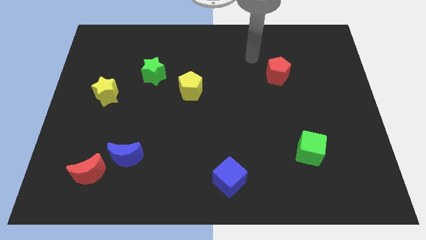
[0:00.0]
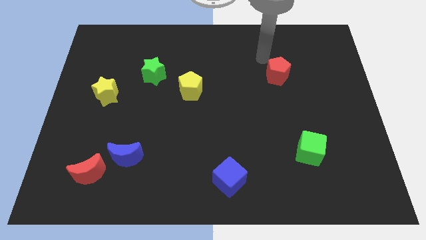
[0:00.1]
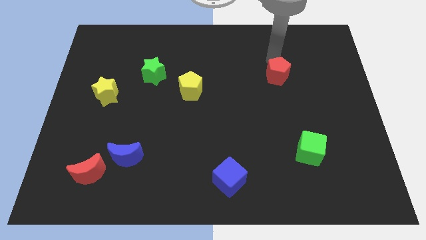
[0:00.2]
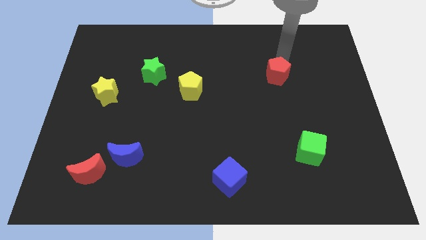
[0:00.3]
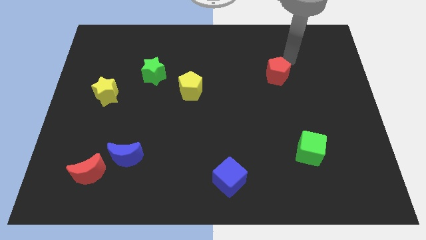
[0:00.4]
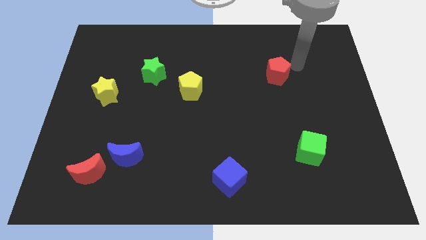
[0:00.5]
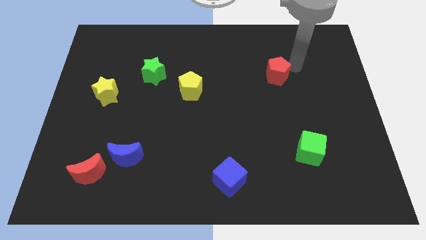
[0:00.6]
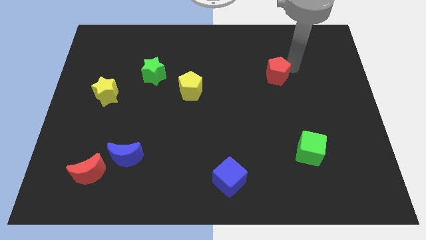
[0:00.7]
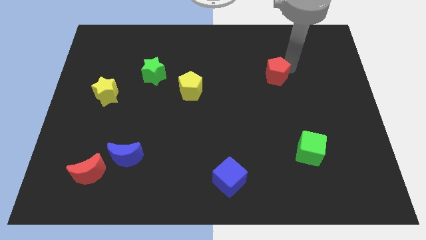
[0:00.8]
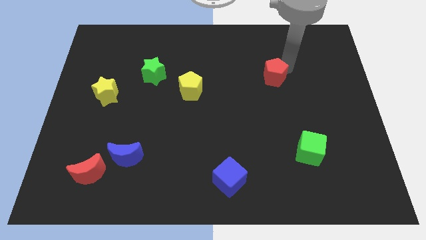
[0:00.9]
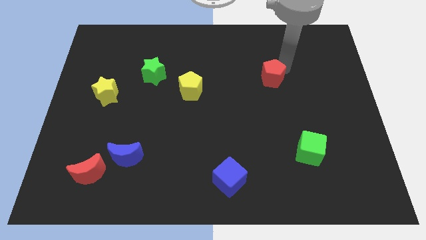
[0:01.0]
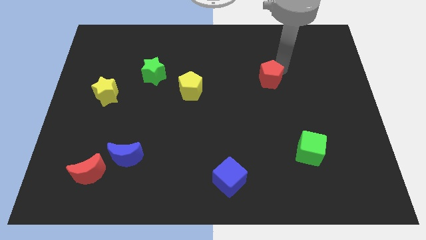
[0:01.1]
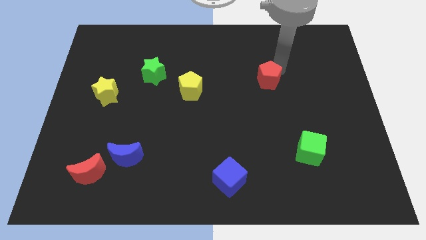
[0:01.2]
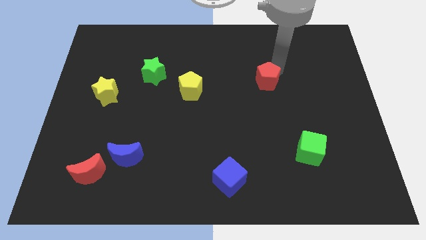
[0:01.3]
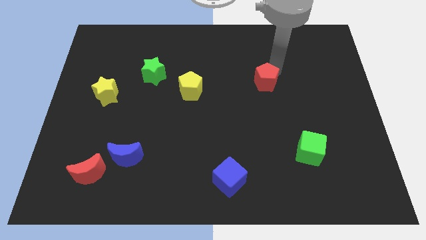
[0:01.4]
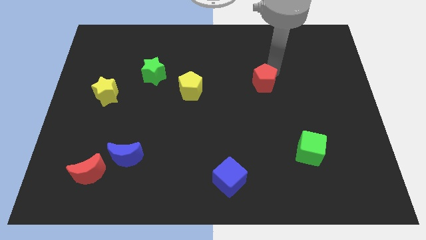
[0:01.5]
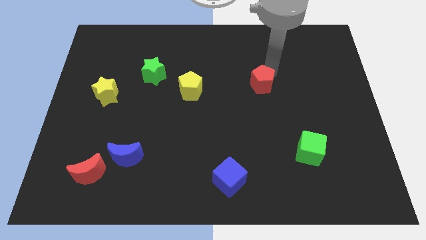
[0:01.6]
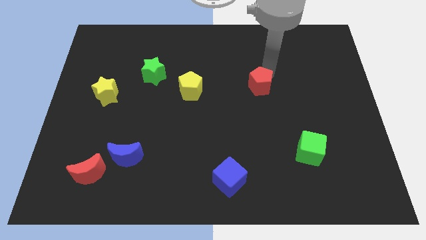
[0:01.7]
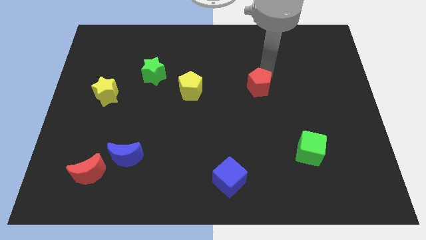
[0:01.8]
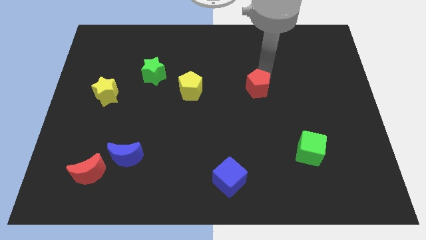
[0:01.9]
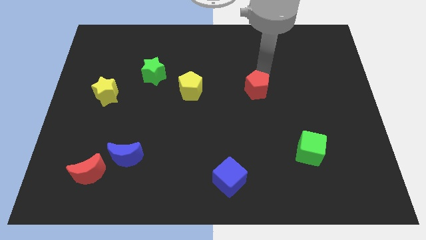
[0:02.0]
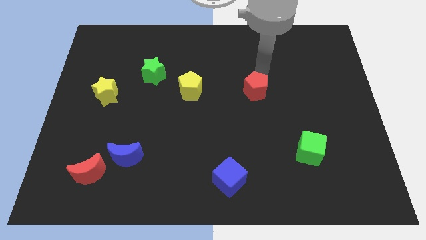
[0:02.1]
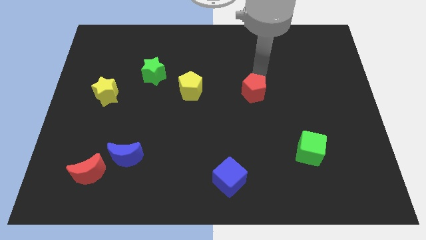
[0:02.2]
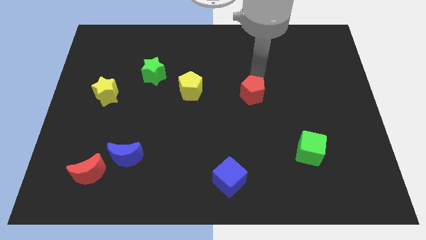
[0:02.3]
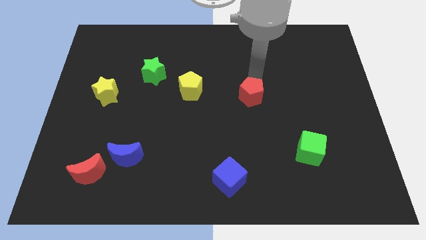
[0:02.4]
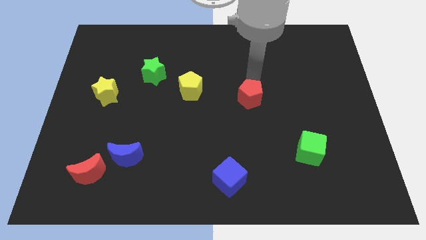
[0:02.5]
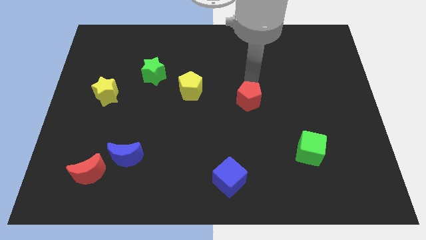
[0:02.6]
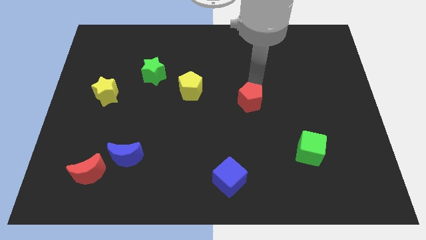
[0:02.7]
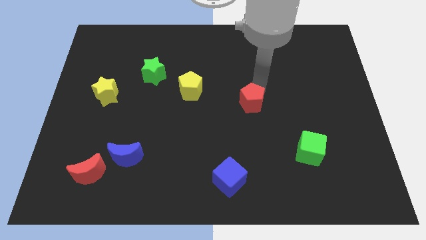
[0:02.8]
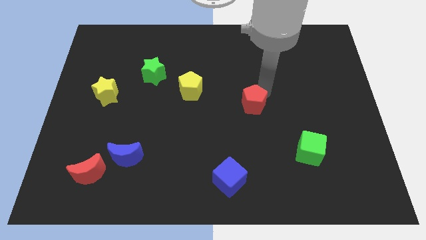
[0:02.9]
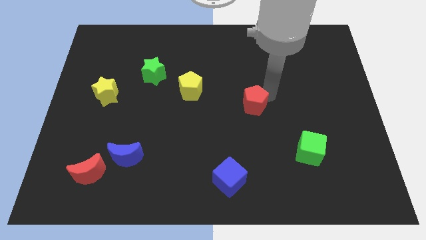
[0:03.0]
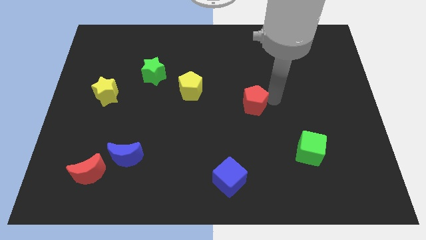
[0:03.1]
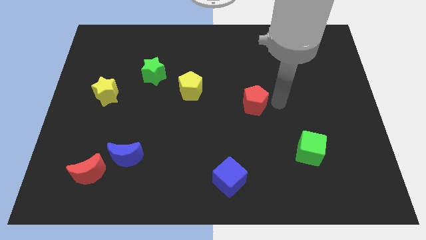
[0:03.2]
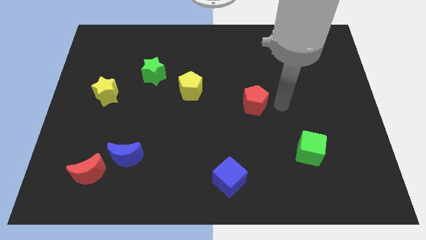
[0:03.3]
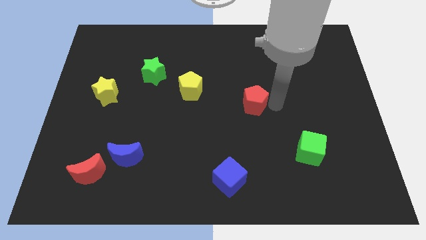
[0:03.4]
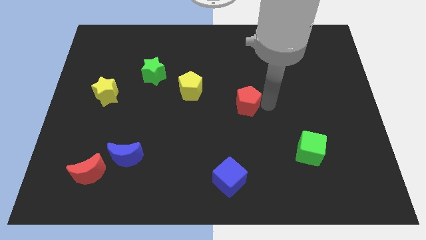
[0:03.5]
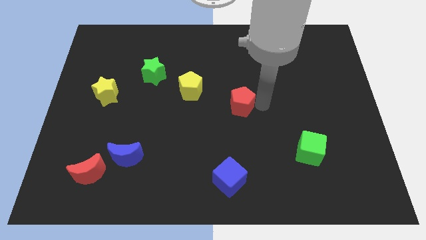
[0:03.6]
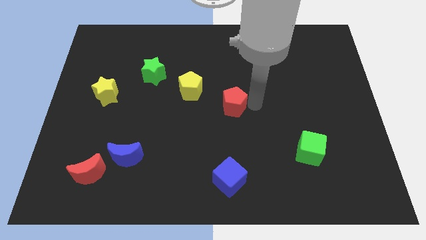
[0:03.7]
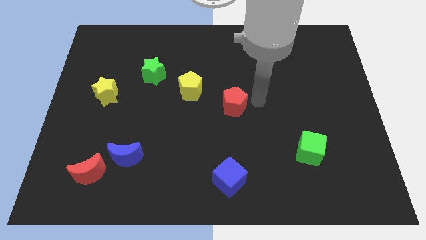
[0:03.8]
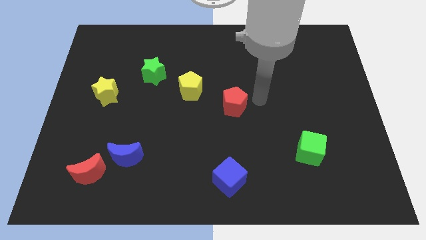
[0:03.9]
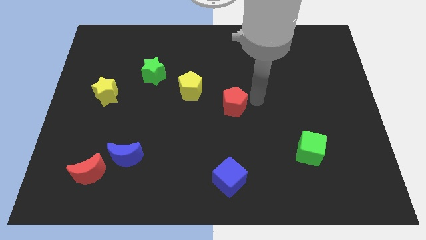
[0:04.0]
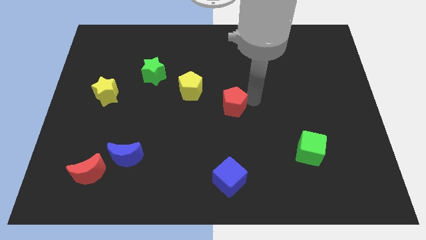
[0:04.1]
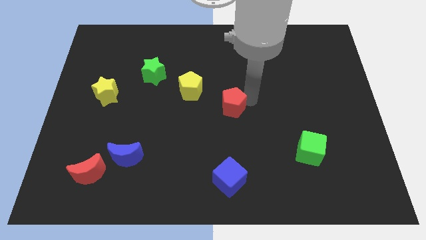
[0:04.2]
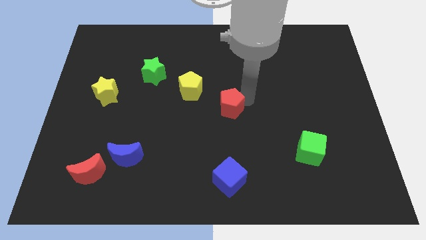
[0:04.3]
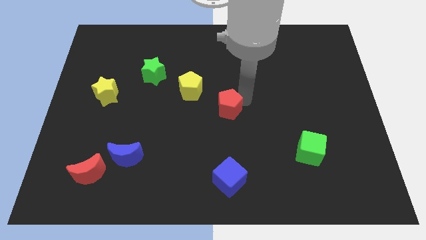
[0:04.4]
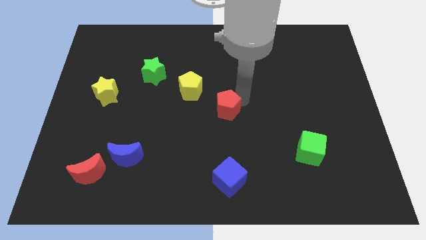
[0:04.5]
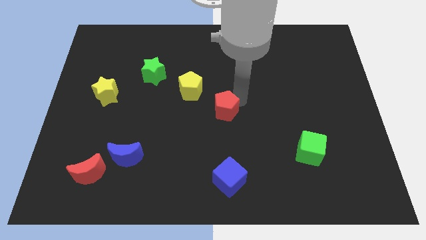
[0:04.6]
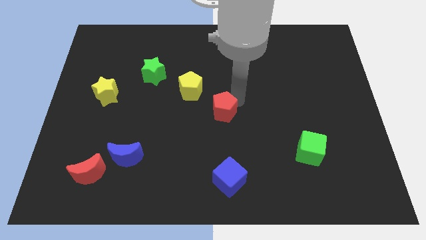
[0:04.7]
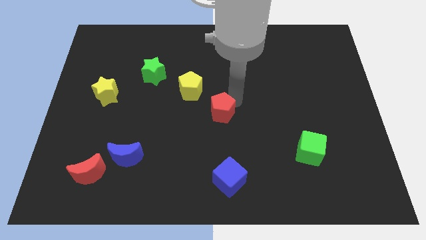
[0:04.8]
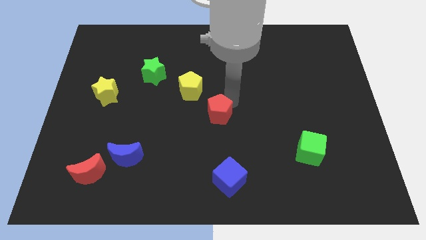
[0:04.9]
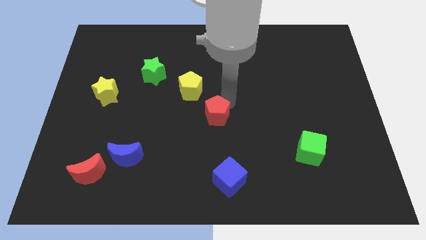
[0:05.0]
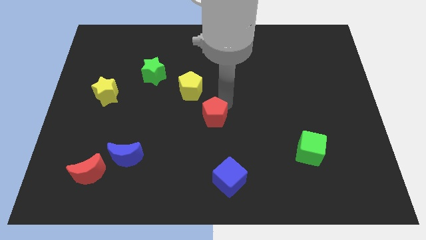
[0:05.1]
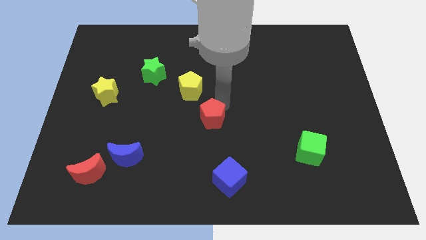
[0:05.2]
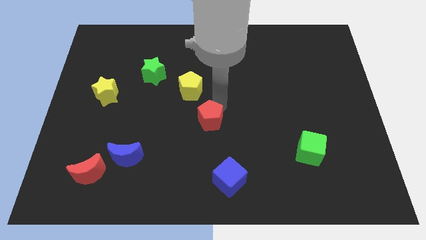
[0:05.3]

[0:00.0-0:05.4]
move the red pentagon to the bottom side of the yellow pentagon

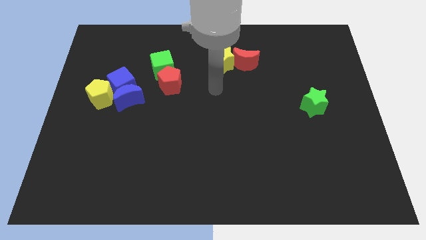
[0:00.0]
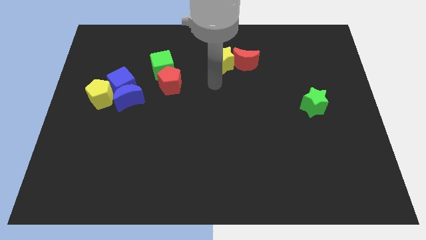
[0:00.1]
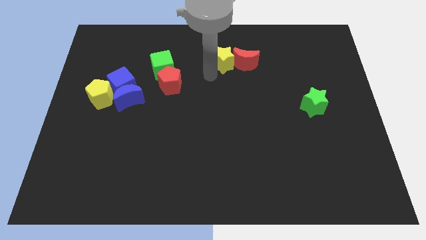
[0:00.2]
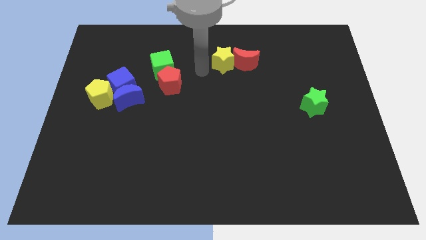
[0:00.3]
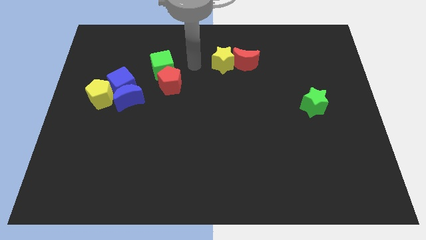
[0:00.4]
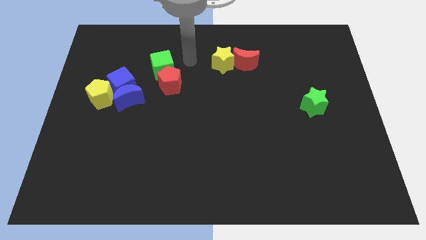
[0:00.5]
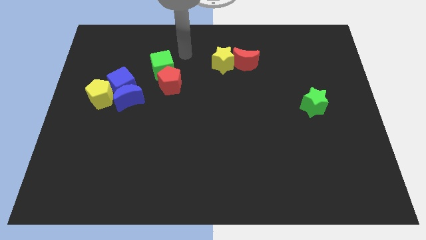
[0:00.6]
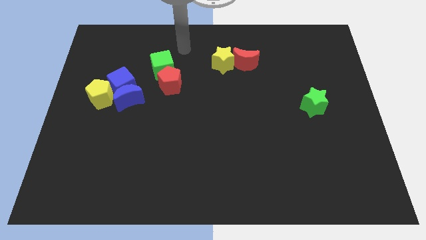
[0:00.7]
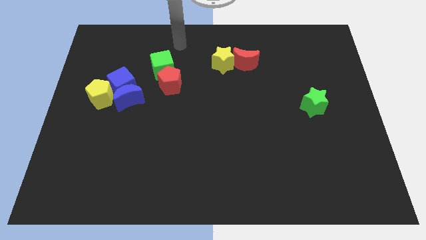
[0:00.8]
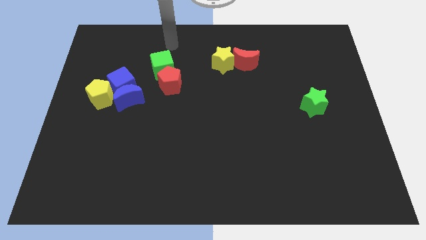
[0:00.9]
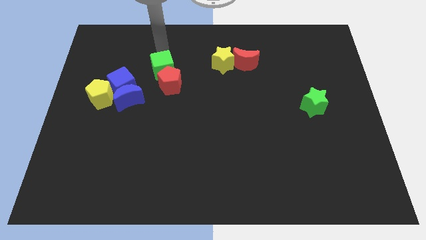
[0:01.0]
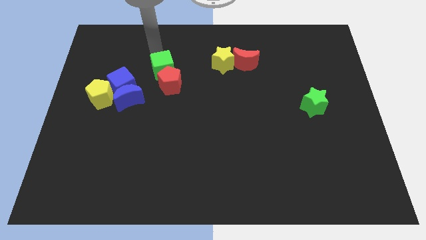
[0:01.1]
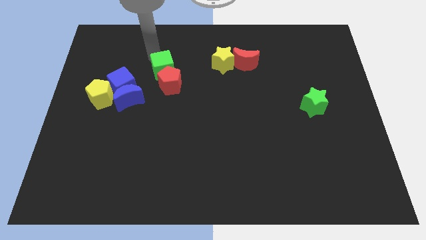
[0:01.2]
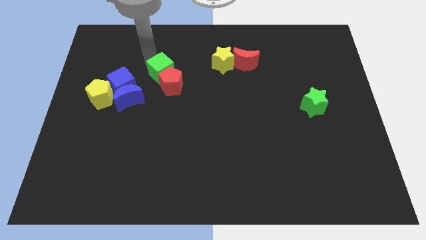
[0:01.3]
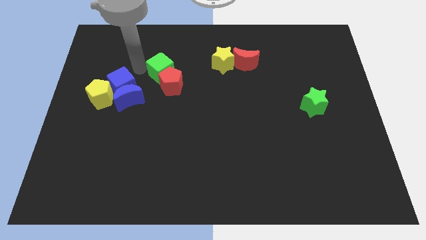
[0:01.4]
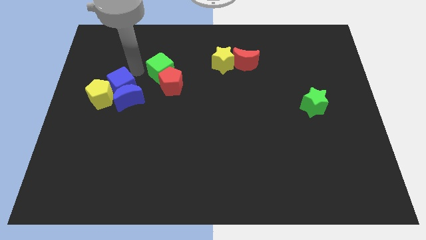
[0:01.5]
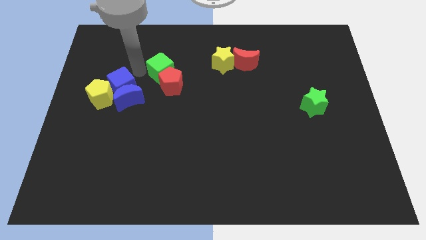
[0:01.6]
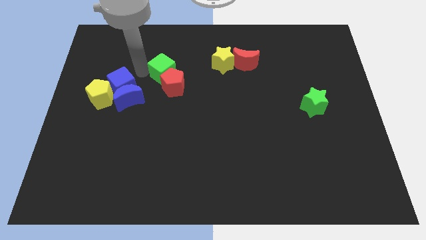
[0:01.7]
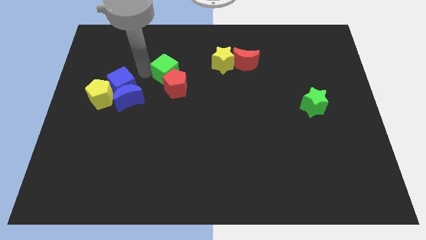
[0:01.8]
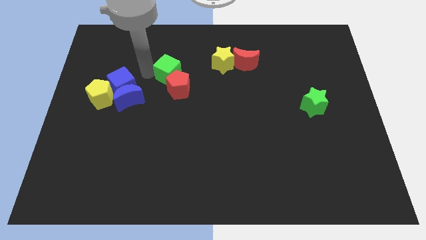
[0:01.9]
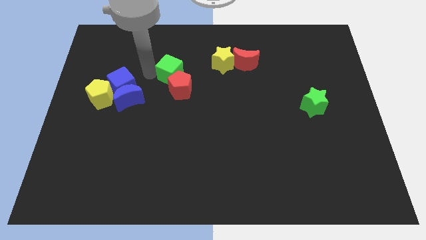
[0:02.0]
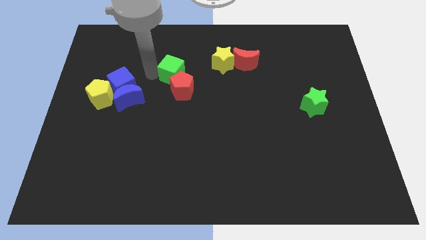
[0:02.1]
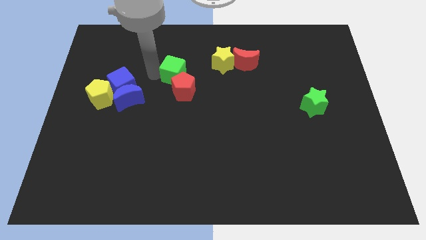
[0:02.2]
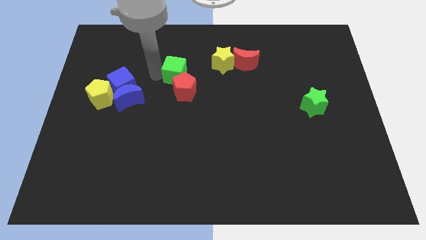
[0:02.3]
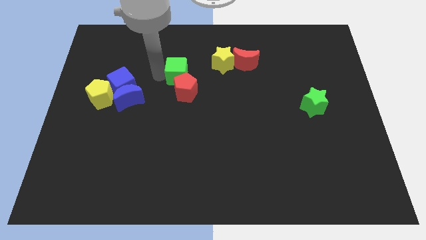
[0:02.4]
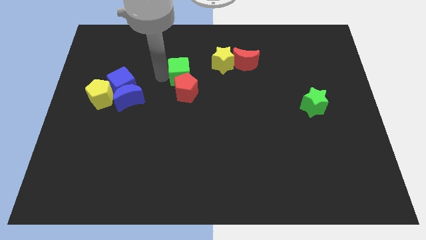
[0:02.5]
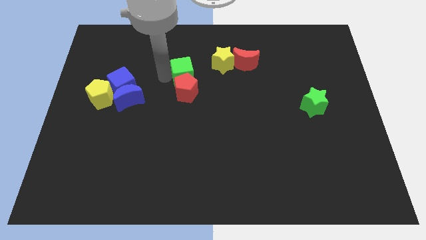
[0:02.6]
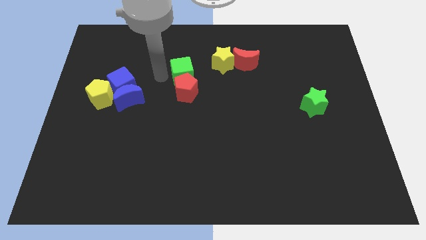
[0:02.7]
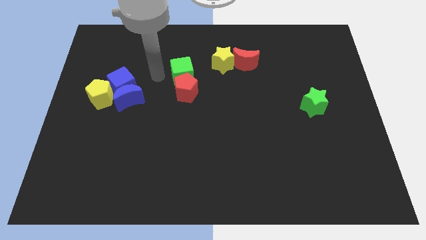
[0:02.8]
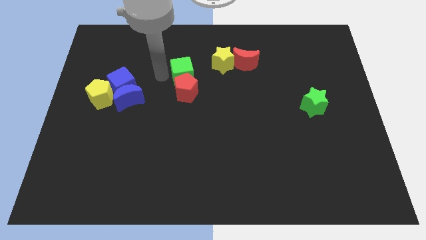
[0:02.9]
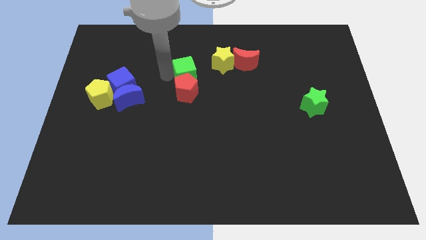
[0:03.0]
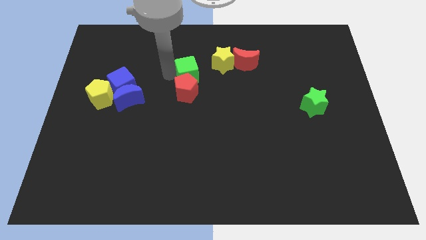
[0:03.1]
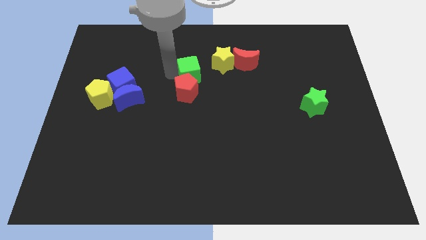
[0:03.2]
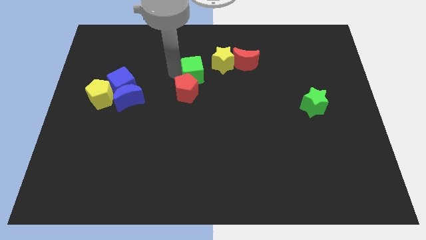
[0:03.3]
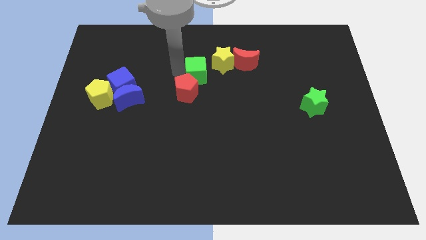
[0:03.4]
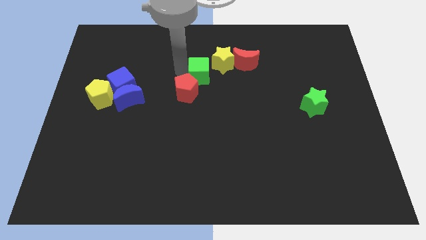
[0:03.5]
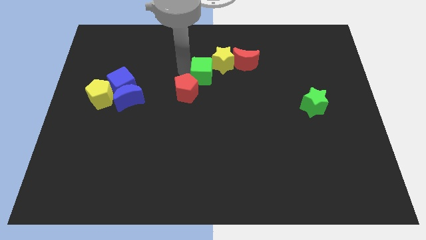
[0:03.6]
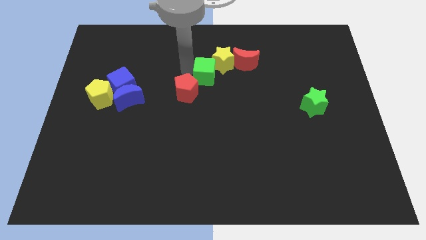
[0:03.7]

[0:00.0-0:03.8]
push the green cube to the bottom left side of the red moon
